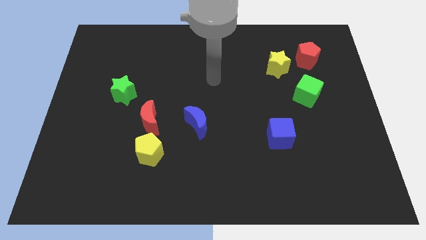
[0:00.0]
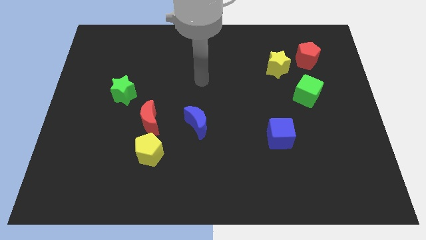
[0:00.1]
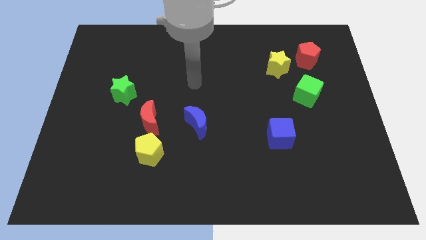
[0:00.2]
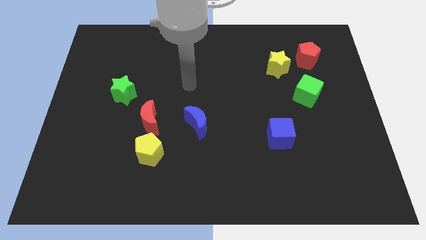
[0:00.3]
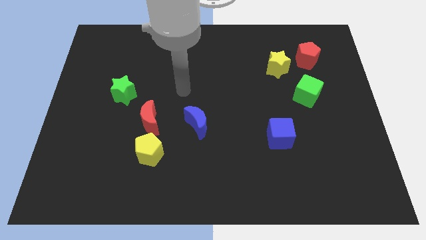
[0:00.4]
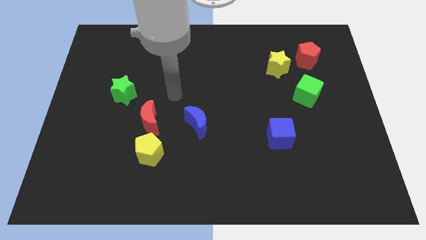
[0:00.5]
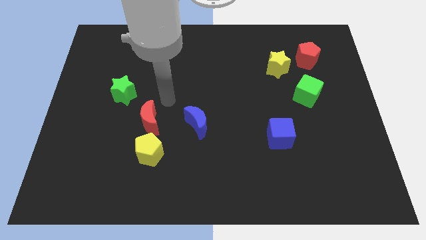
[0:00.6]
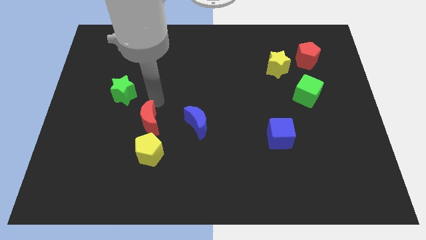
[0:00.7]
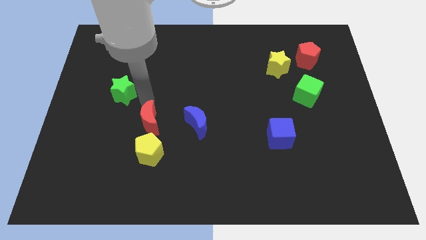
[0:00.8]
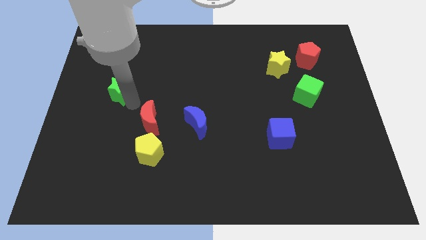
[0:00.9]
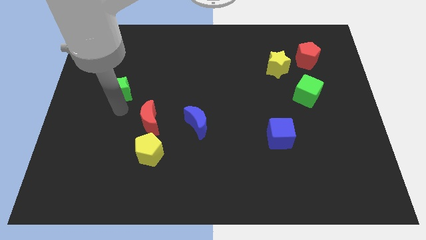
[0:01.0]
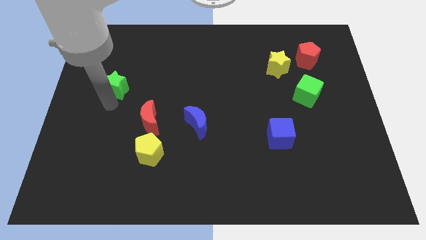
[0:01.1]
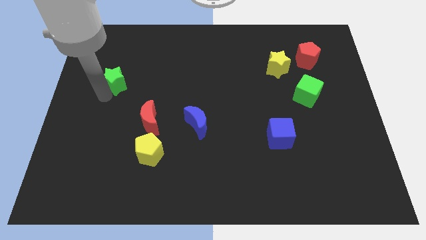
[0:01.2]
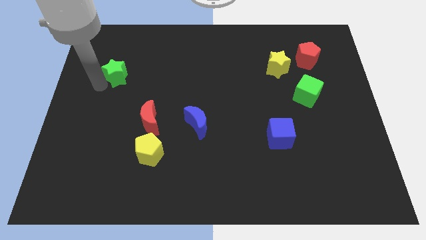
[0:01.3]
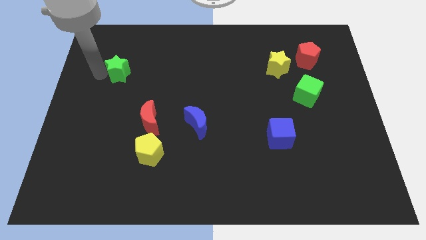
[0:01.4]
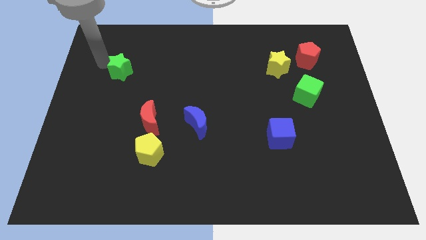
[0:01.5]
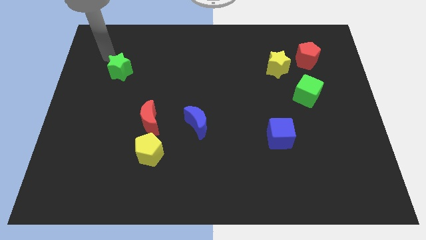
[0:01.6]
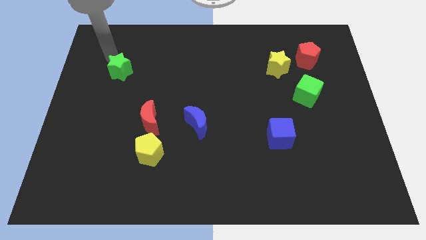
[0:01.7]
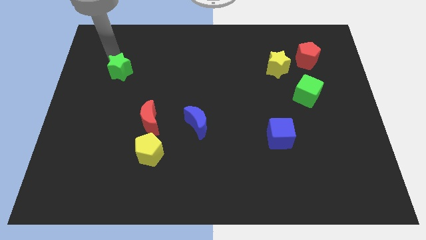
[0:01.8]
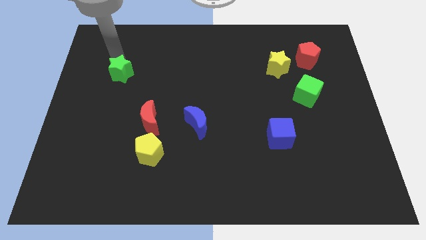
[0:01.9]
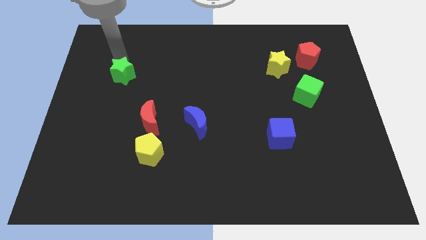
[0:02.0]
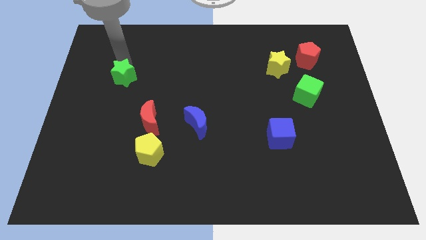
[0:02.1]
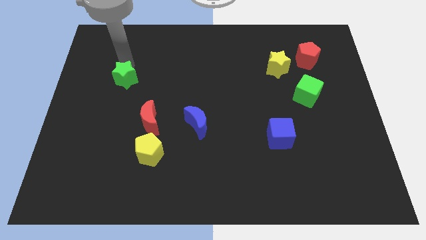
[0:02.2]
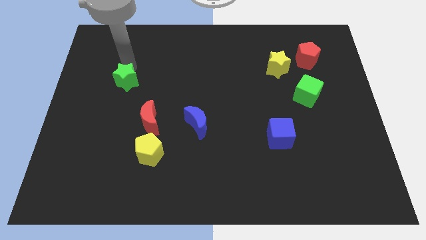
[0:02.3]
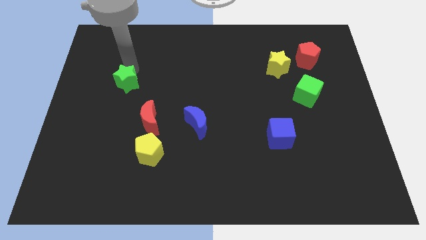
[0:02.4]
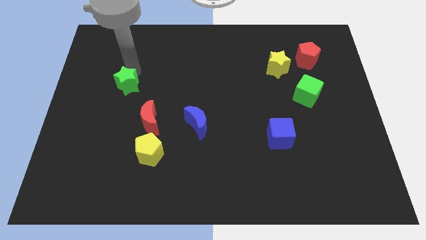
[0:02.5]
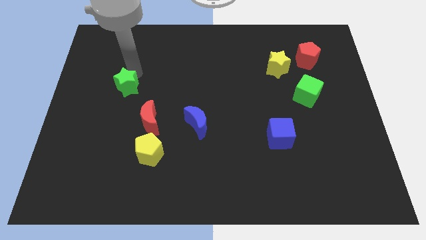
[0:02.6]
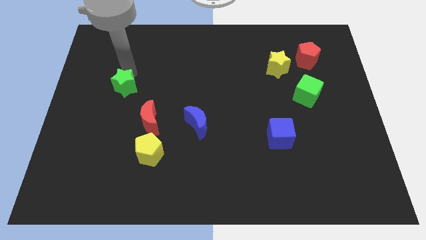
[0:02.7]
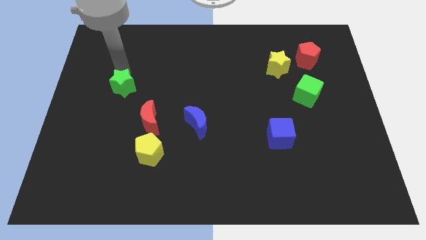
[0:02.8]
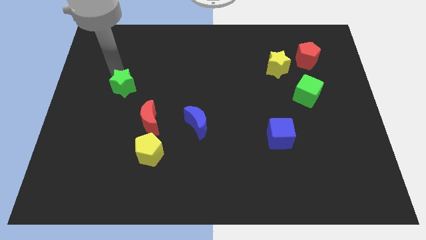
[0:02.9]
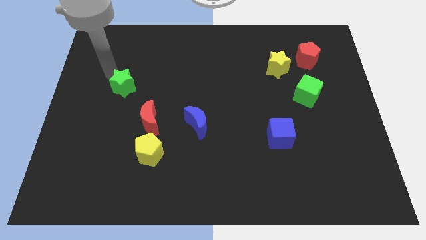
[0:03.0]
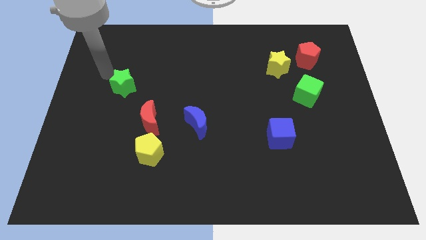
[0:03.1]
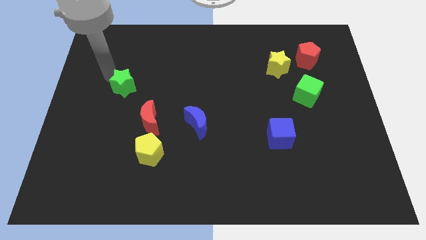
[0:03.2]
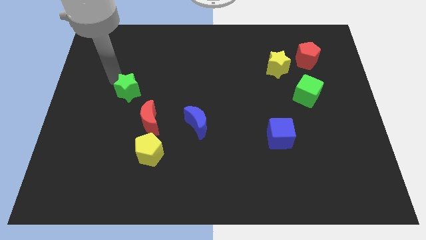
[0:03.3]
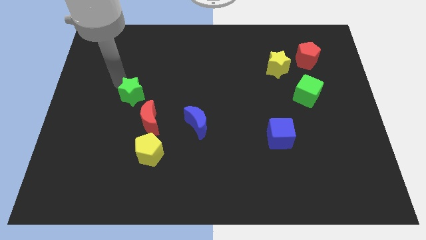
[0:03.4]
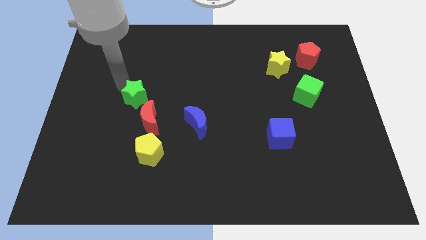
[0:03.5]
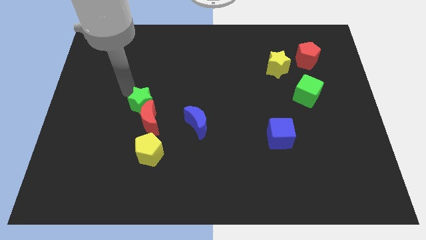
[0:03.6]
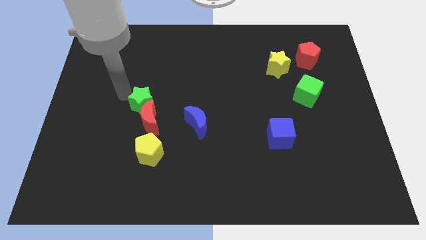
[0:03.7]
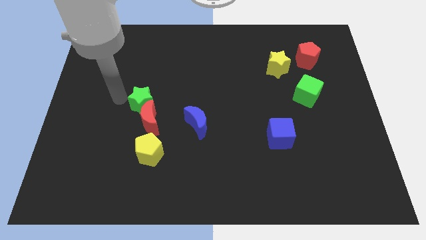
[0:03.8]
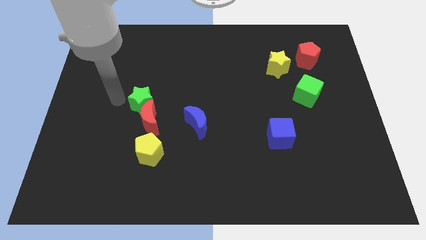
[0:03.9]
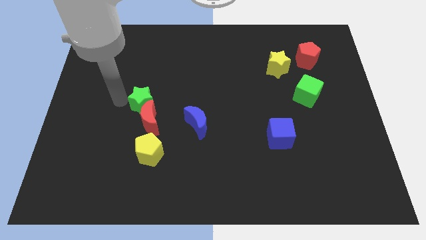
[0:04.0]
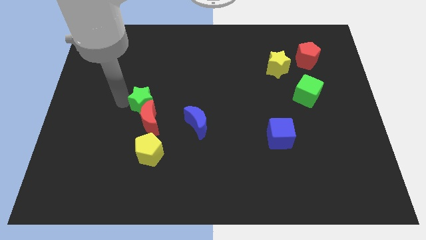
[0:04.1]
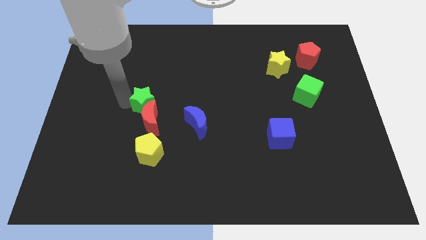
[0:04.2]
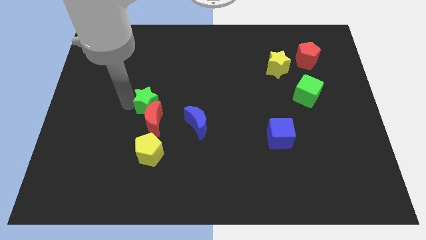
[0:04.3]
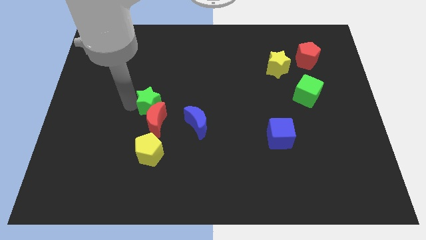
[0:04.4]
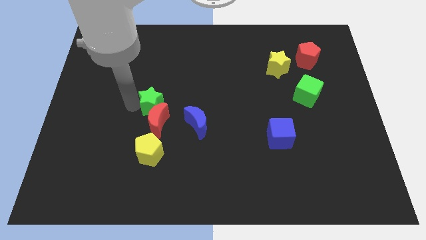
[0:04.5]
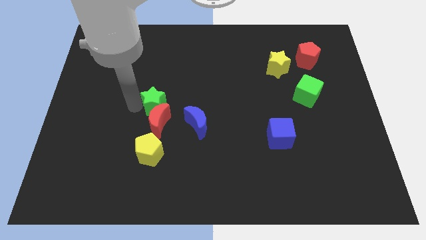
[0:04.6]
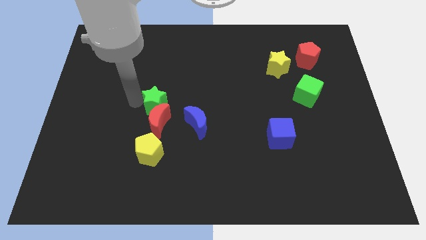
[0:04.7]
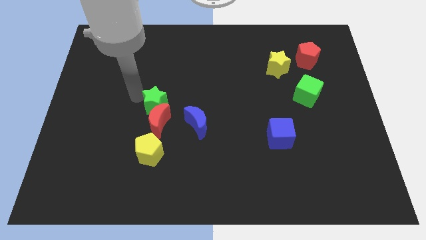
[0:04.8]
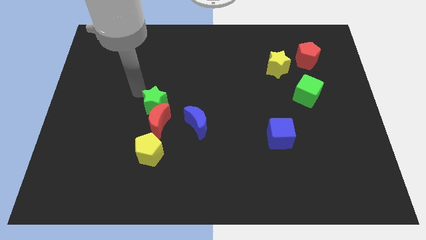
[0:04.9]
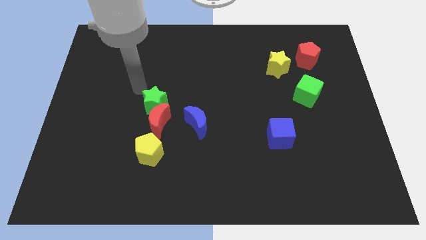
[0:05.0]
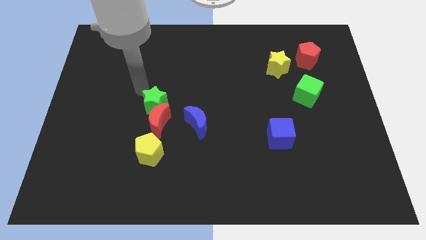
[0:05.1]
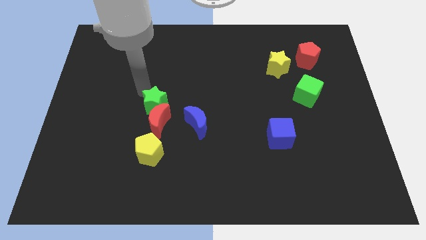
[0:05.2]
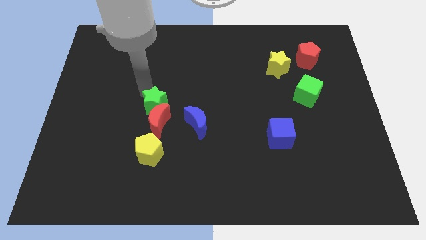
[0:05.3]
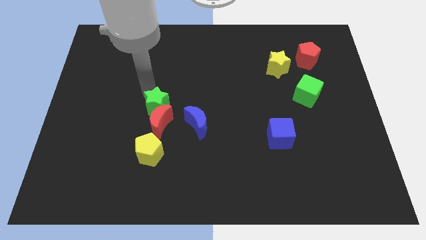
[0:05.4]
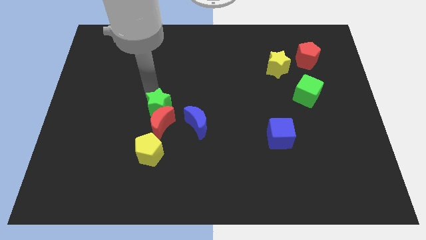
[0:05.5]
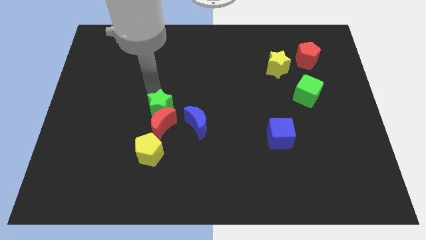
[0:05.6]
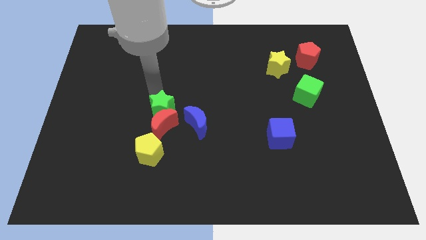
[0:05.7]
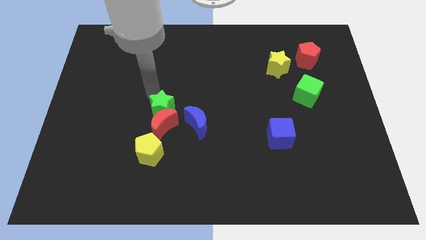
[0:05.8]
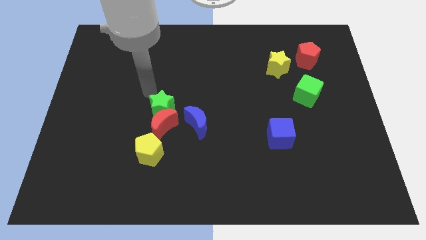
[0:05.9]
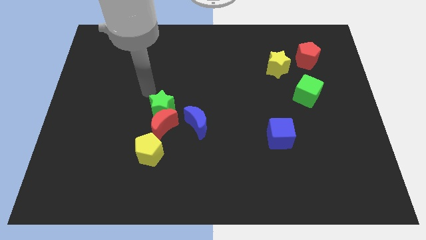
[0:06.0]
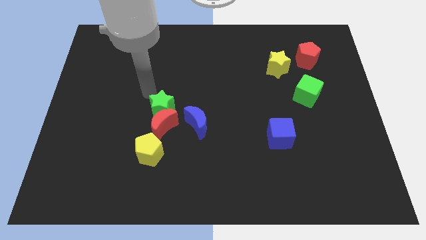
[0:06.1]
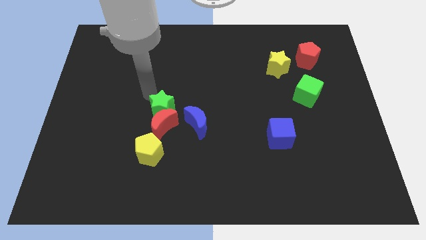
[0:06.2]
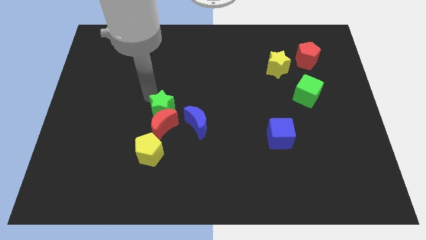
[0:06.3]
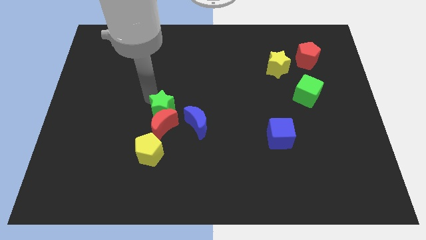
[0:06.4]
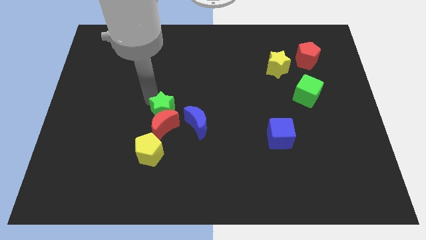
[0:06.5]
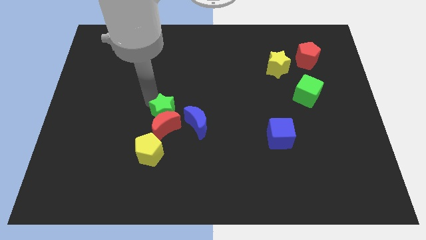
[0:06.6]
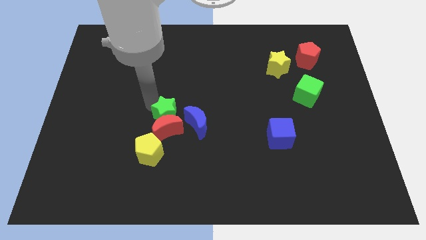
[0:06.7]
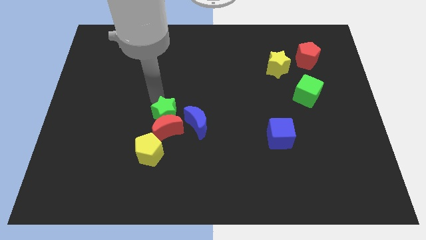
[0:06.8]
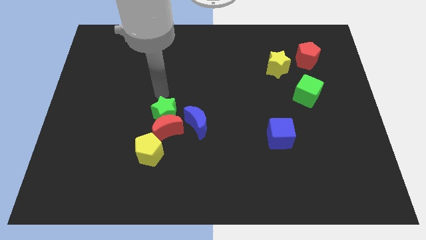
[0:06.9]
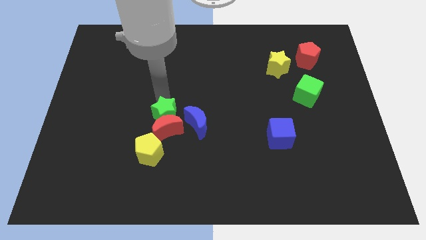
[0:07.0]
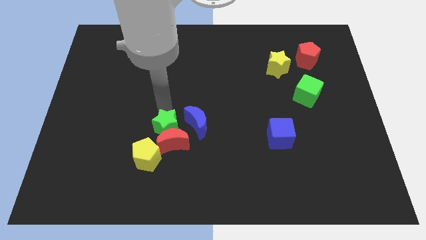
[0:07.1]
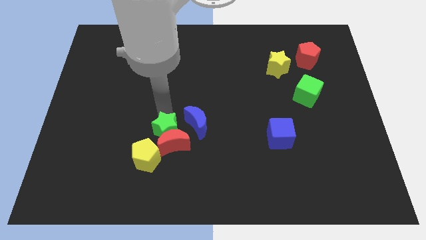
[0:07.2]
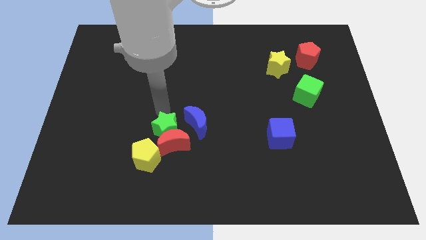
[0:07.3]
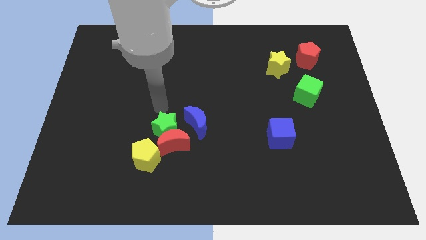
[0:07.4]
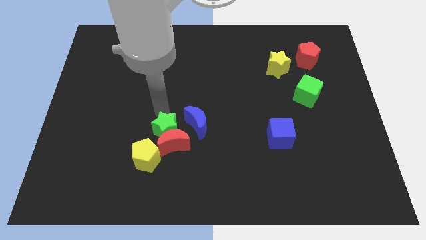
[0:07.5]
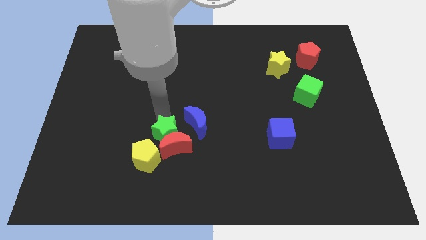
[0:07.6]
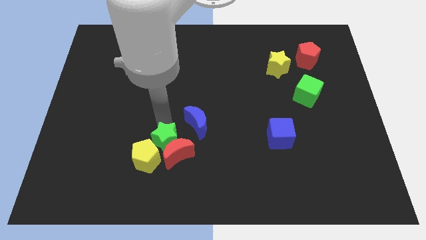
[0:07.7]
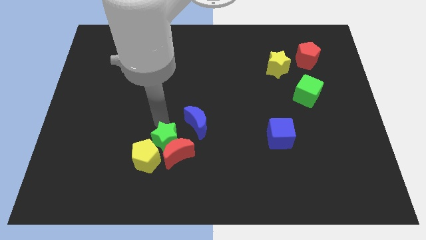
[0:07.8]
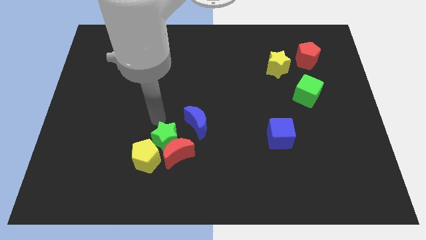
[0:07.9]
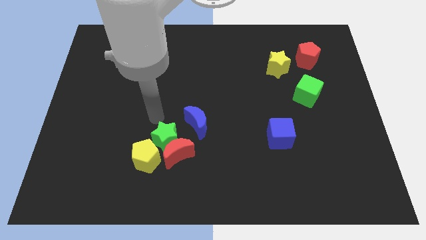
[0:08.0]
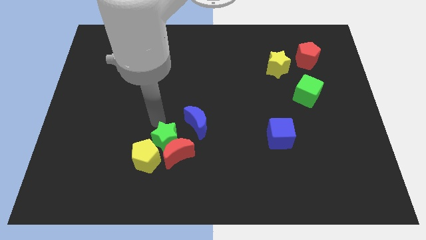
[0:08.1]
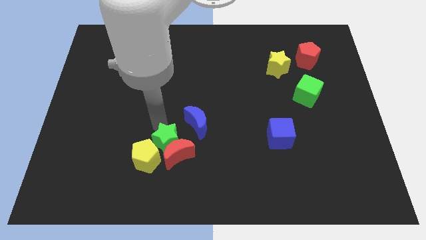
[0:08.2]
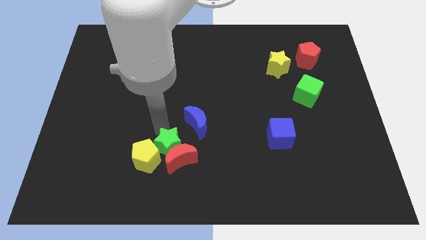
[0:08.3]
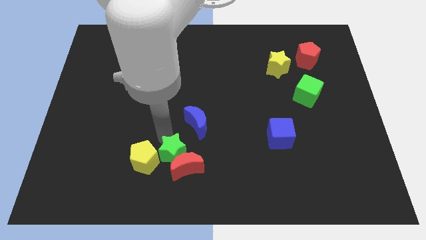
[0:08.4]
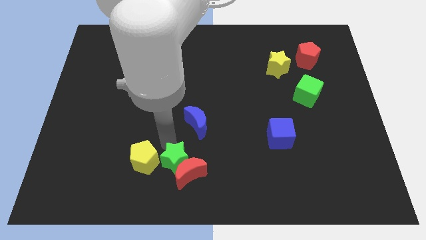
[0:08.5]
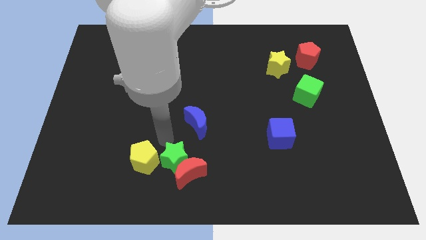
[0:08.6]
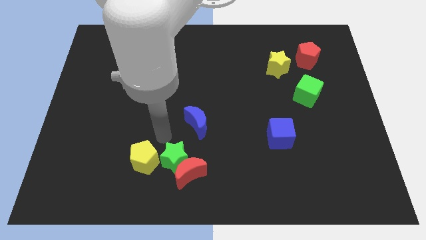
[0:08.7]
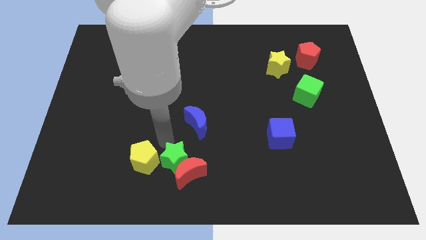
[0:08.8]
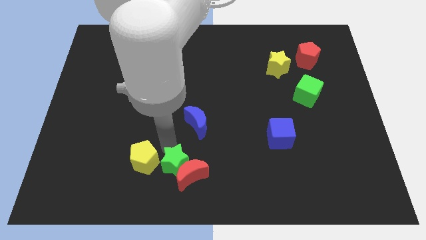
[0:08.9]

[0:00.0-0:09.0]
push the green star to the bottom side
